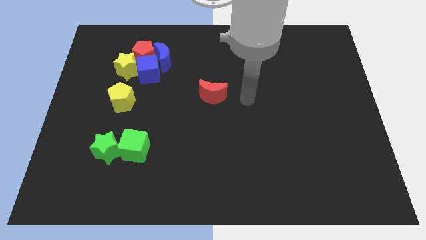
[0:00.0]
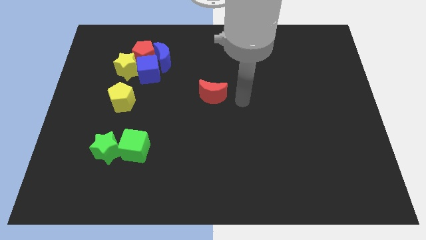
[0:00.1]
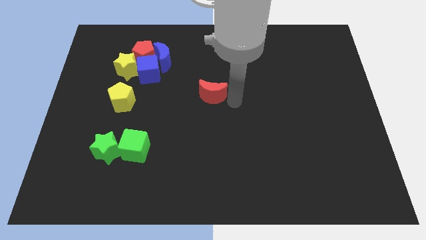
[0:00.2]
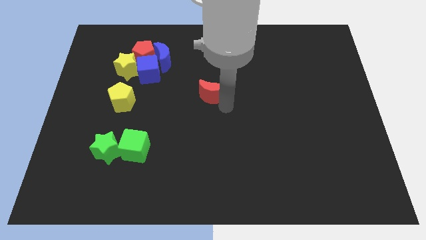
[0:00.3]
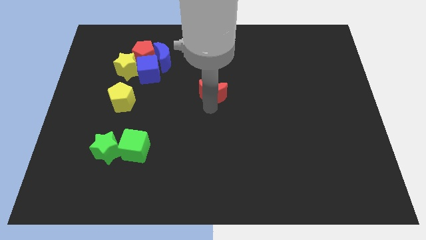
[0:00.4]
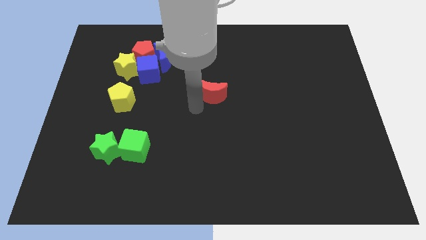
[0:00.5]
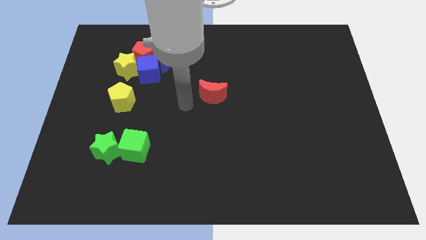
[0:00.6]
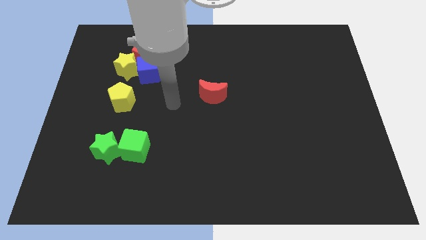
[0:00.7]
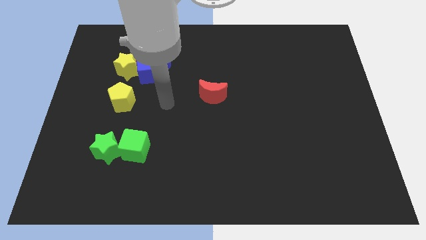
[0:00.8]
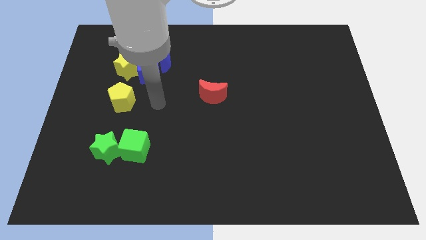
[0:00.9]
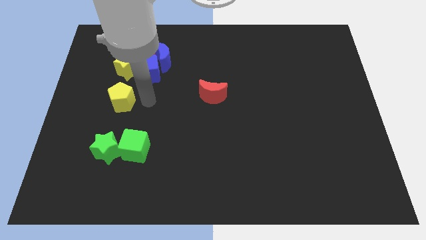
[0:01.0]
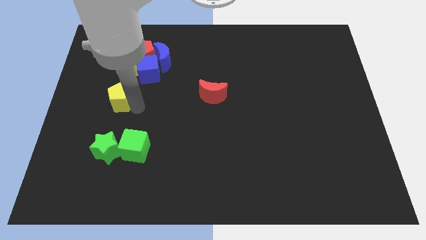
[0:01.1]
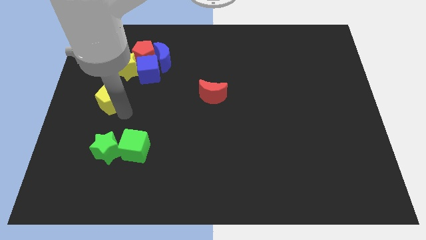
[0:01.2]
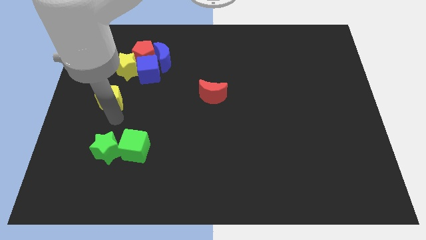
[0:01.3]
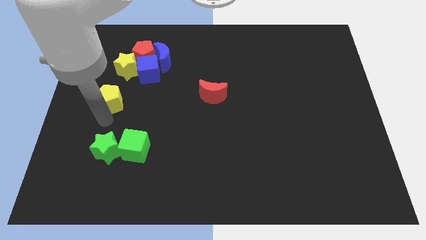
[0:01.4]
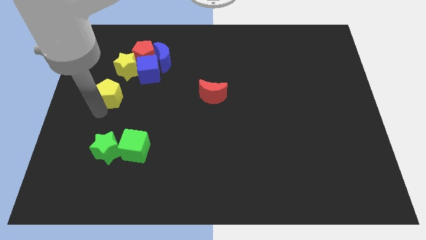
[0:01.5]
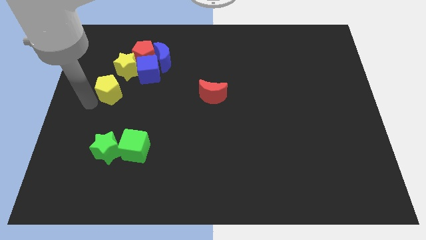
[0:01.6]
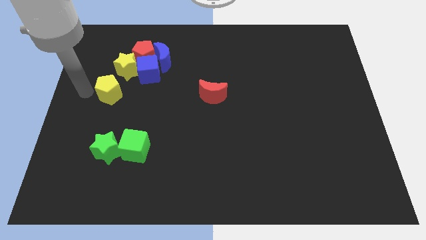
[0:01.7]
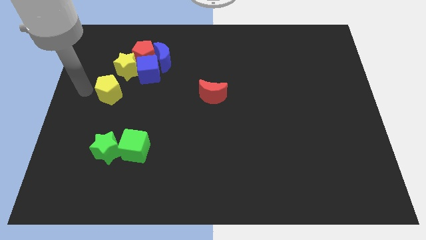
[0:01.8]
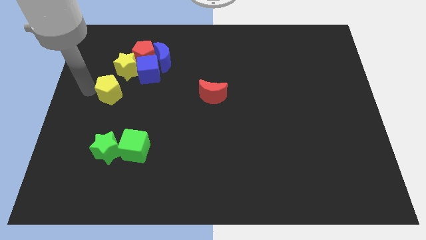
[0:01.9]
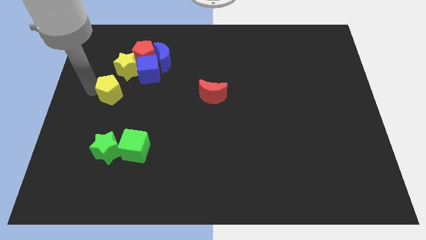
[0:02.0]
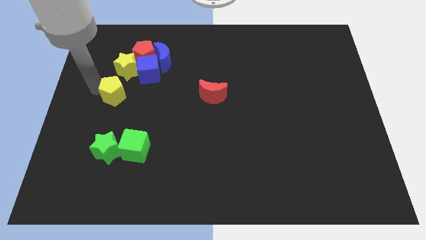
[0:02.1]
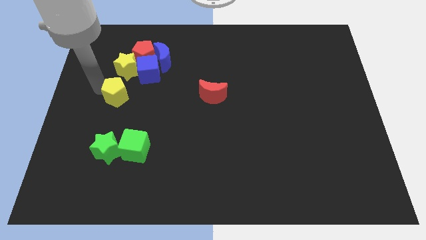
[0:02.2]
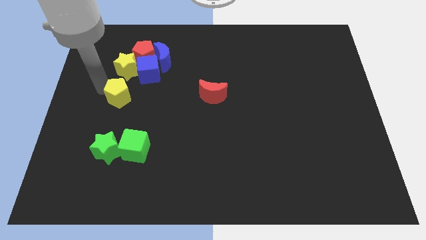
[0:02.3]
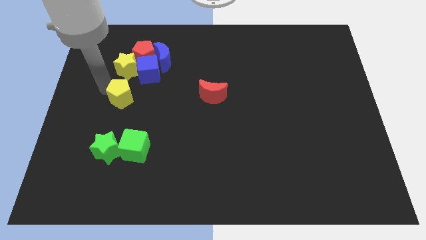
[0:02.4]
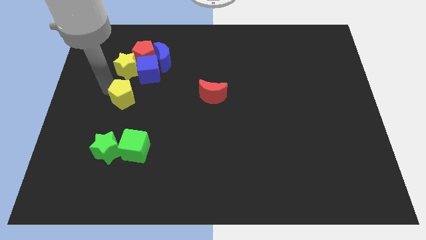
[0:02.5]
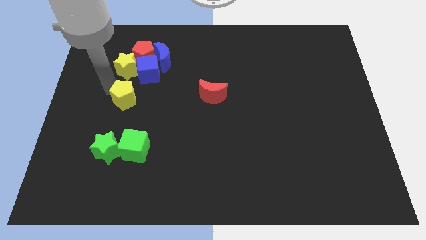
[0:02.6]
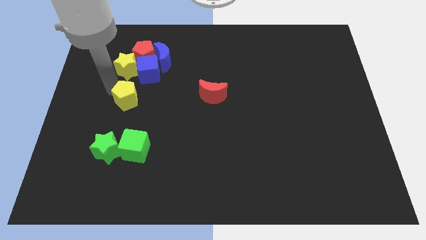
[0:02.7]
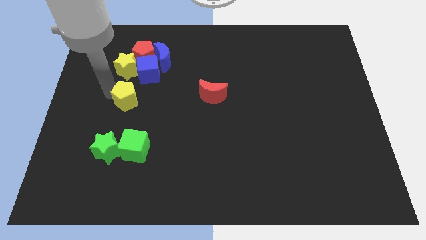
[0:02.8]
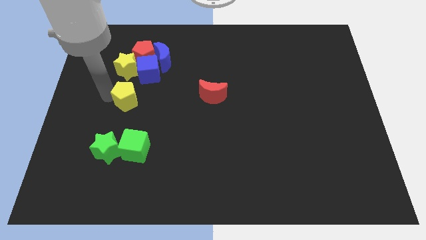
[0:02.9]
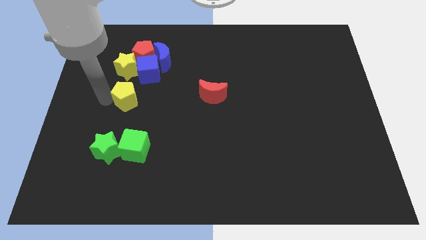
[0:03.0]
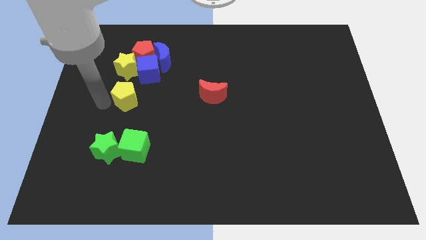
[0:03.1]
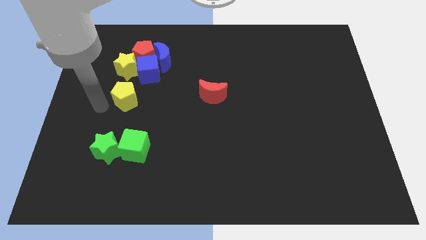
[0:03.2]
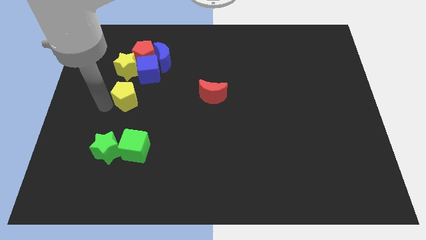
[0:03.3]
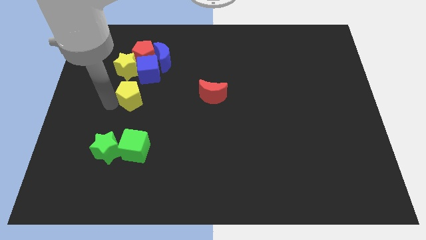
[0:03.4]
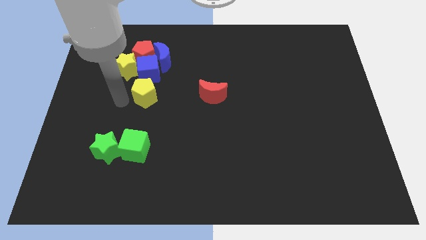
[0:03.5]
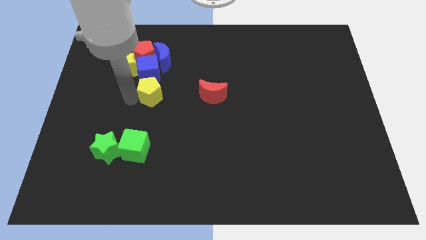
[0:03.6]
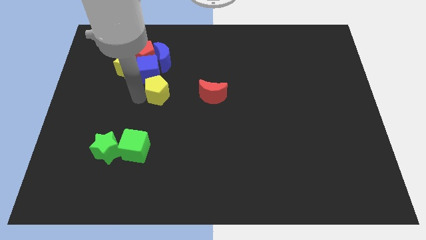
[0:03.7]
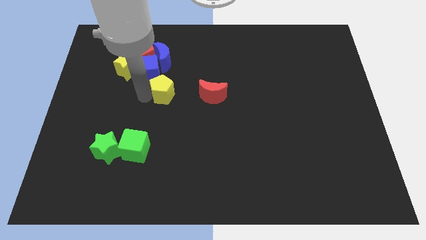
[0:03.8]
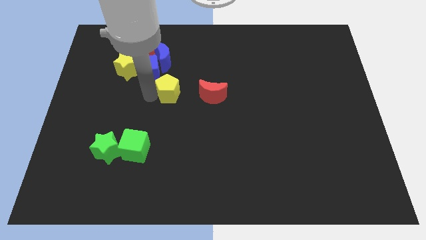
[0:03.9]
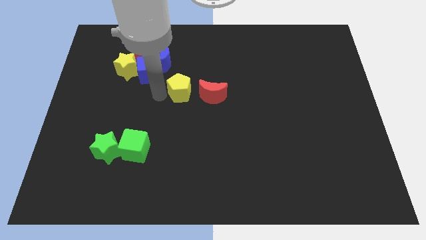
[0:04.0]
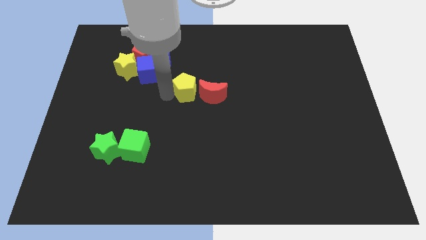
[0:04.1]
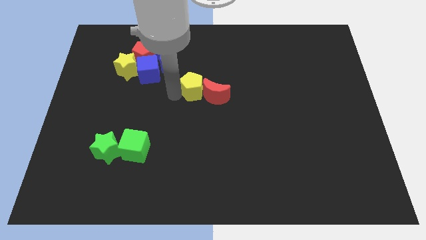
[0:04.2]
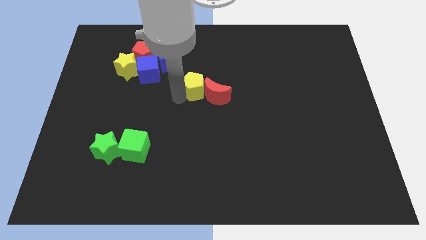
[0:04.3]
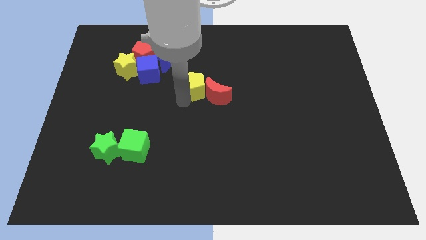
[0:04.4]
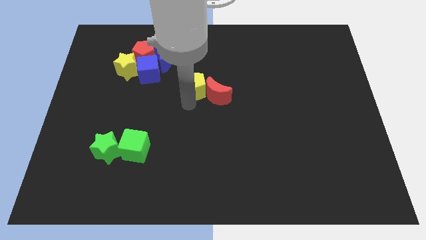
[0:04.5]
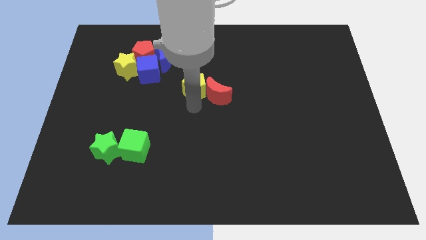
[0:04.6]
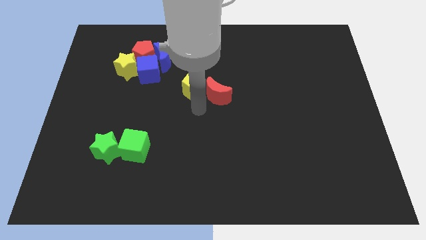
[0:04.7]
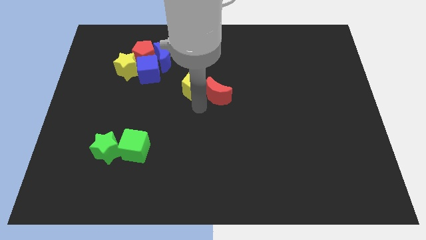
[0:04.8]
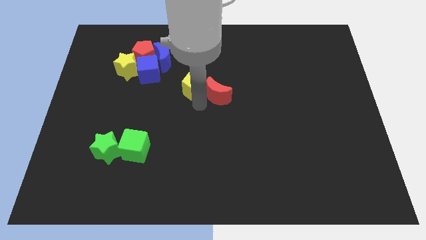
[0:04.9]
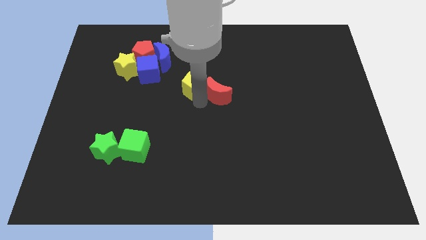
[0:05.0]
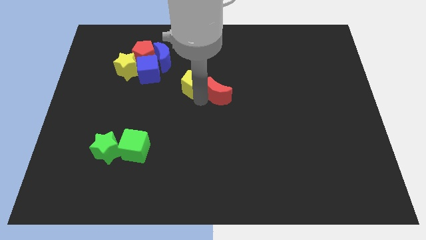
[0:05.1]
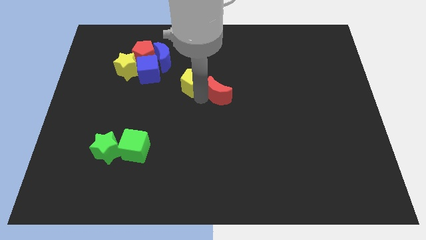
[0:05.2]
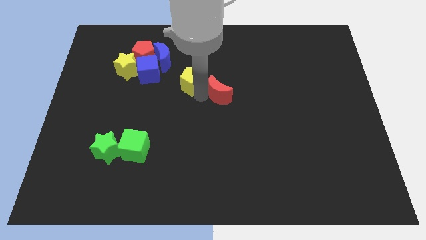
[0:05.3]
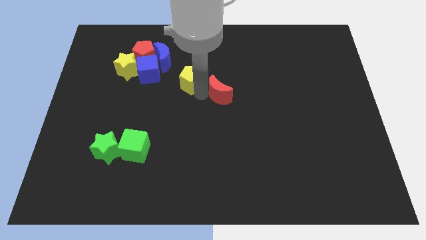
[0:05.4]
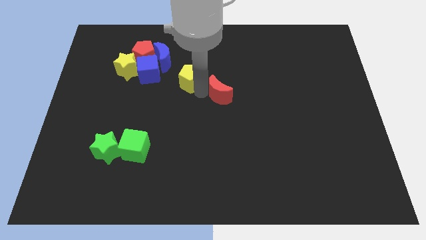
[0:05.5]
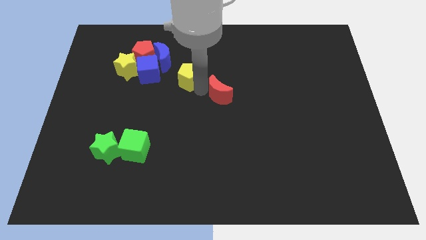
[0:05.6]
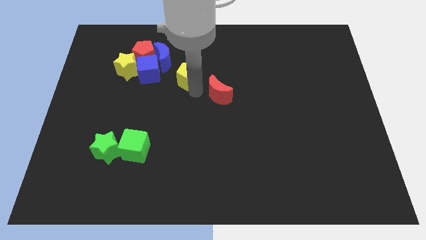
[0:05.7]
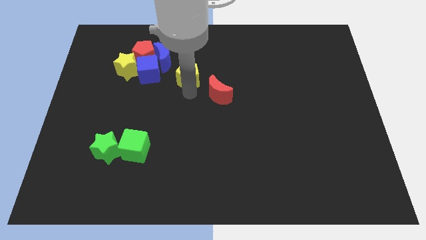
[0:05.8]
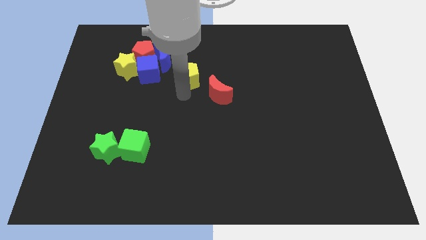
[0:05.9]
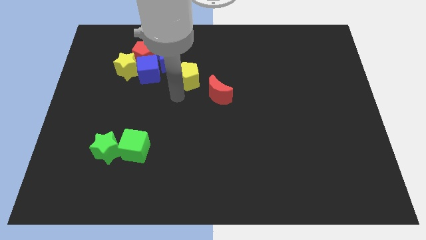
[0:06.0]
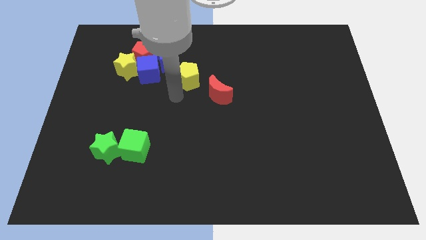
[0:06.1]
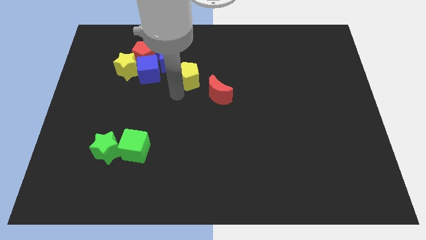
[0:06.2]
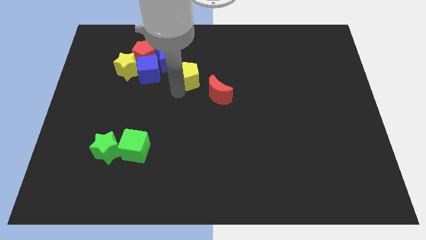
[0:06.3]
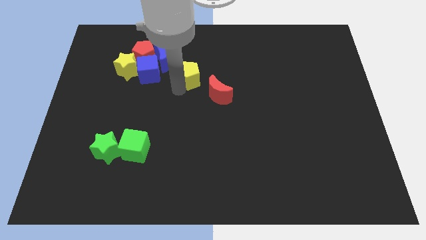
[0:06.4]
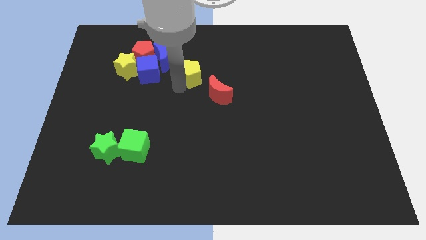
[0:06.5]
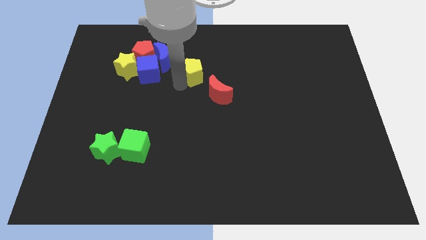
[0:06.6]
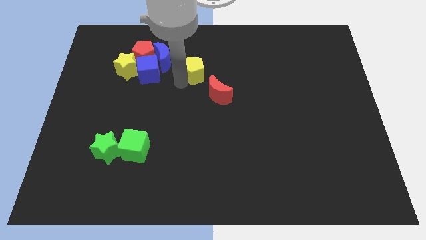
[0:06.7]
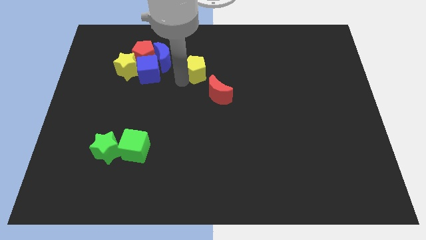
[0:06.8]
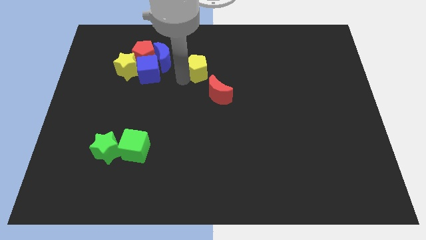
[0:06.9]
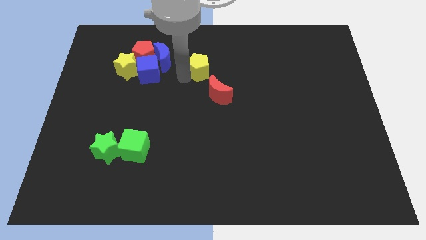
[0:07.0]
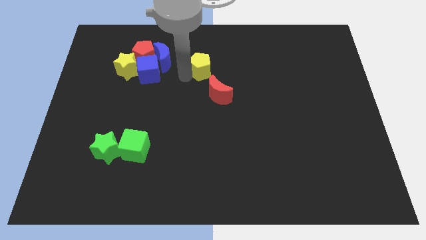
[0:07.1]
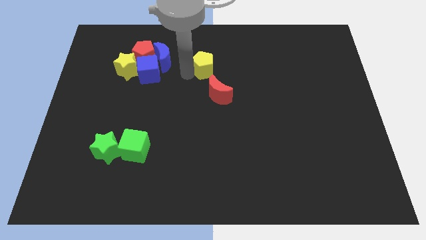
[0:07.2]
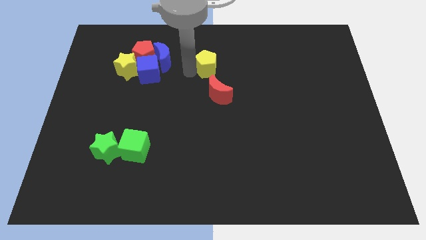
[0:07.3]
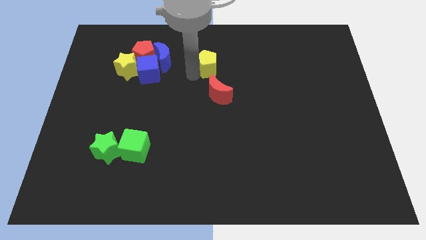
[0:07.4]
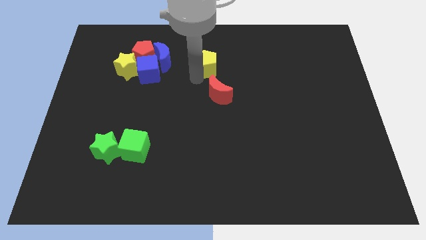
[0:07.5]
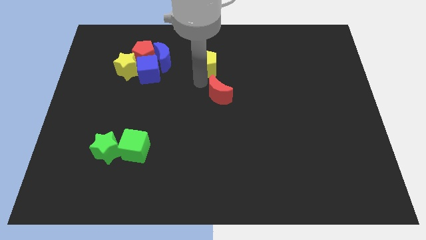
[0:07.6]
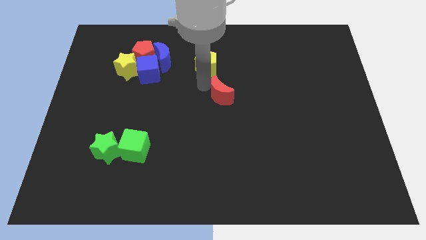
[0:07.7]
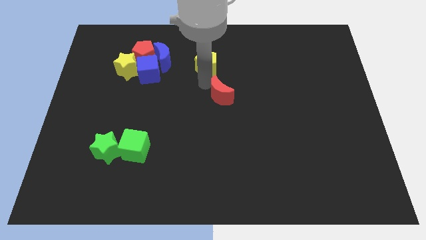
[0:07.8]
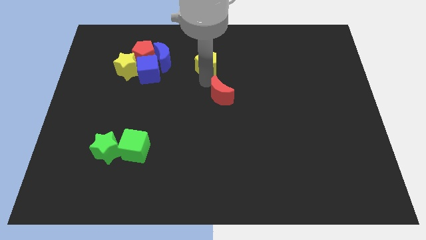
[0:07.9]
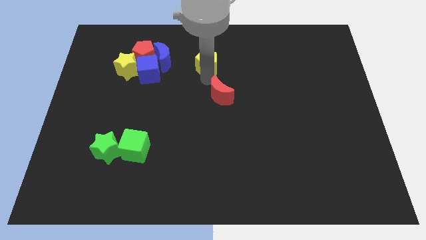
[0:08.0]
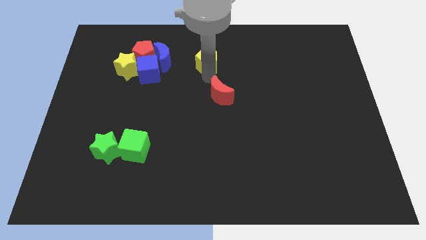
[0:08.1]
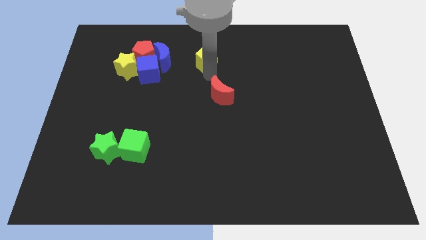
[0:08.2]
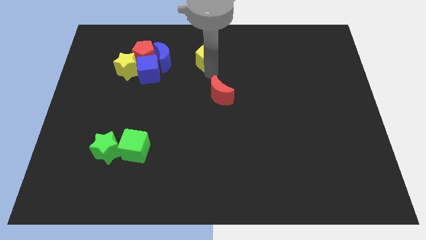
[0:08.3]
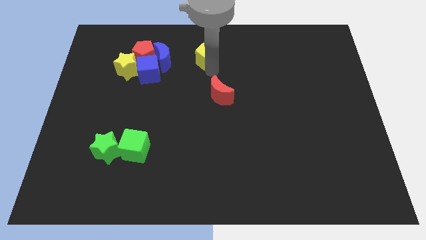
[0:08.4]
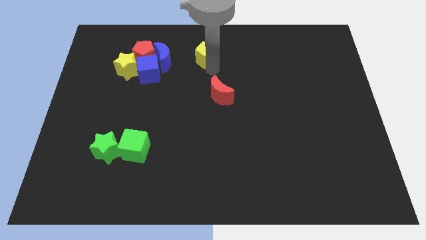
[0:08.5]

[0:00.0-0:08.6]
put the yellow pentagon to the top
